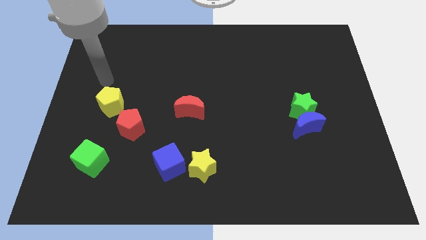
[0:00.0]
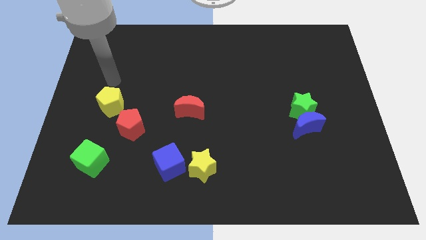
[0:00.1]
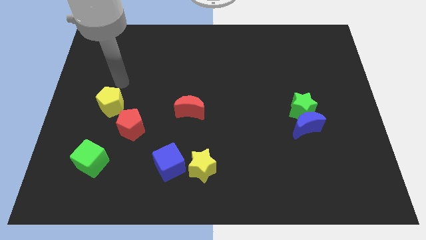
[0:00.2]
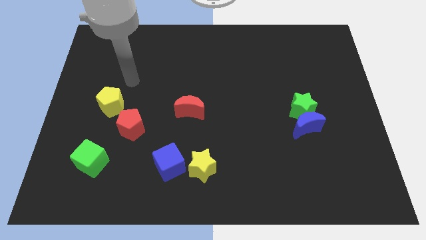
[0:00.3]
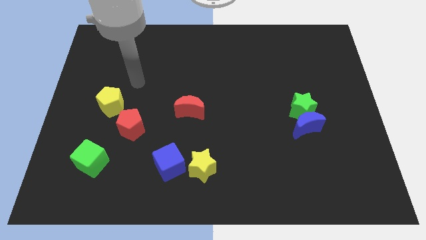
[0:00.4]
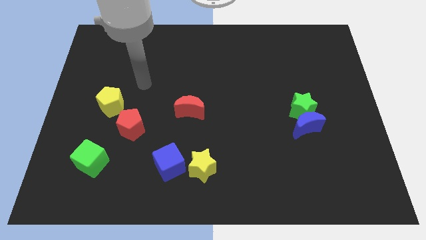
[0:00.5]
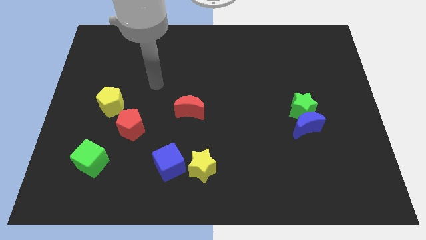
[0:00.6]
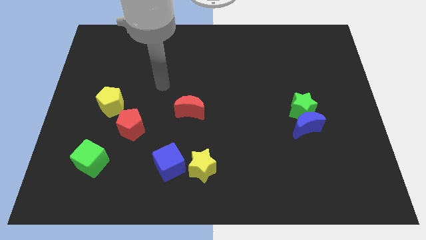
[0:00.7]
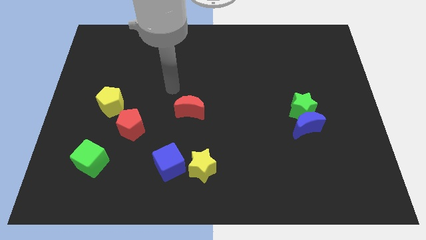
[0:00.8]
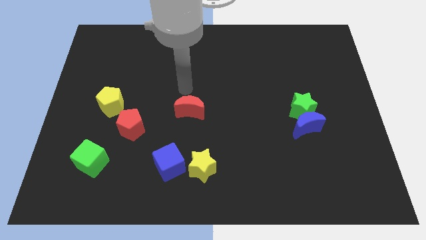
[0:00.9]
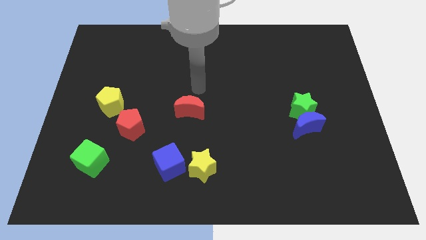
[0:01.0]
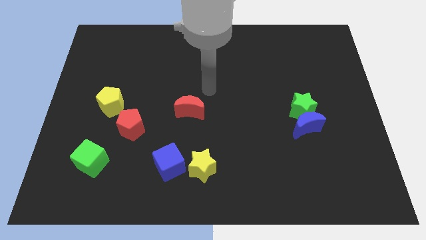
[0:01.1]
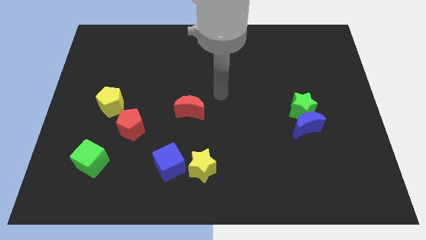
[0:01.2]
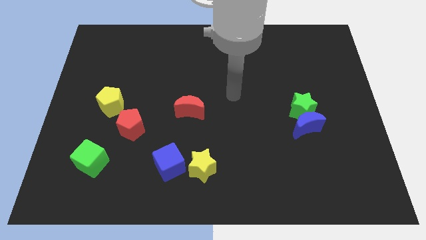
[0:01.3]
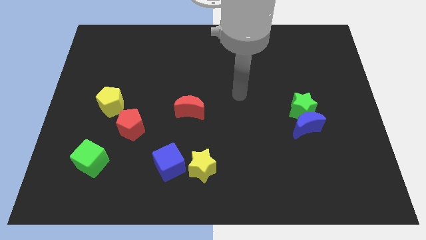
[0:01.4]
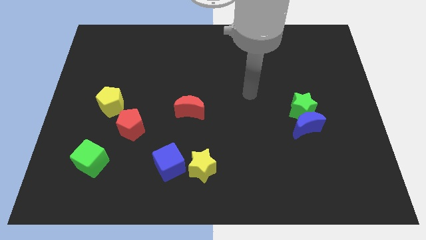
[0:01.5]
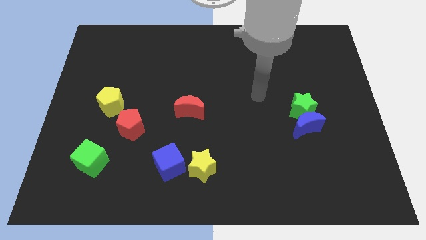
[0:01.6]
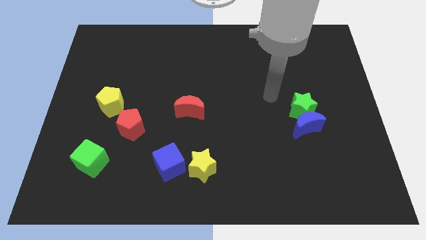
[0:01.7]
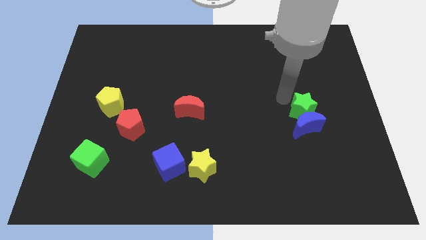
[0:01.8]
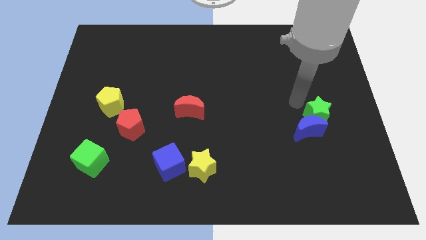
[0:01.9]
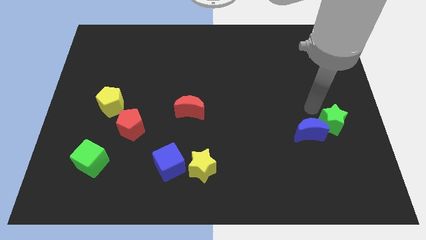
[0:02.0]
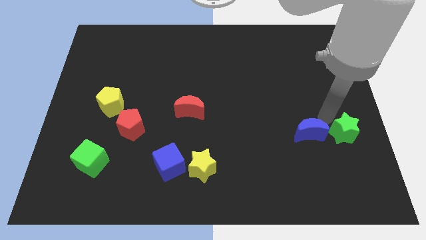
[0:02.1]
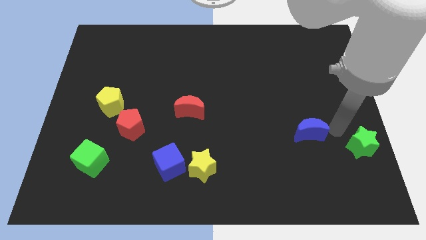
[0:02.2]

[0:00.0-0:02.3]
pull the blue moon apart from the green star

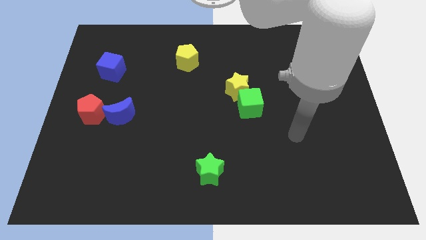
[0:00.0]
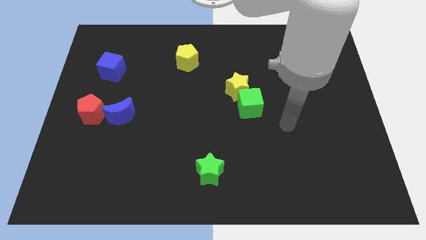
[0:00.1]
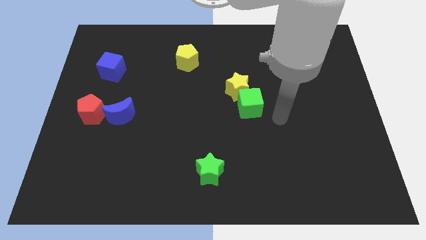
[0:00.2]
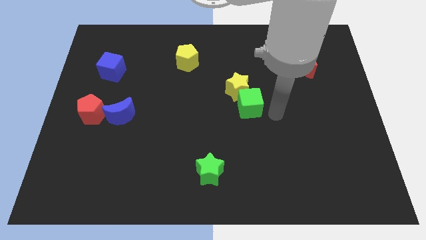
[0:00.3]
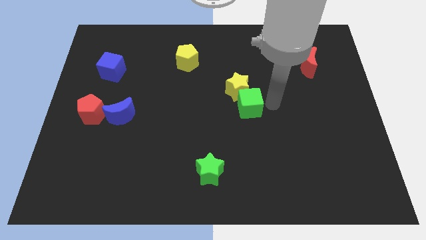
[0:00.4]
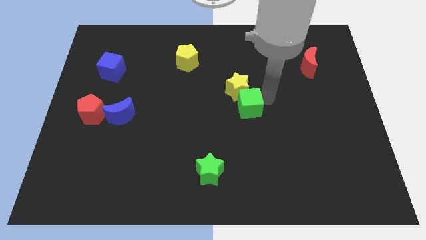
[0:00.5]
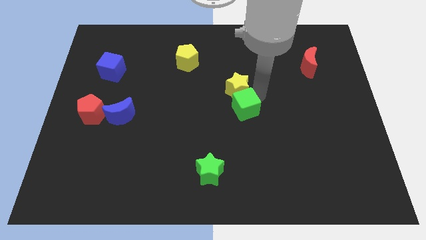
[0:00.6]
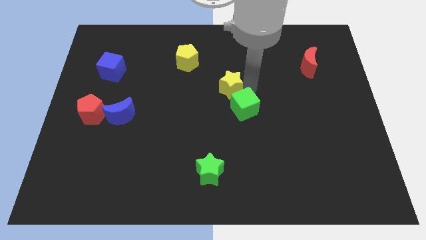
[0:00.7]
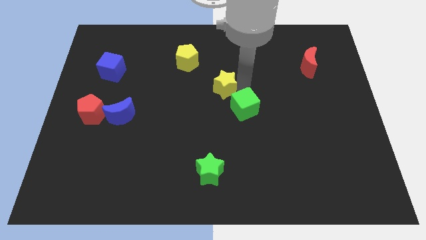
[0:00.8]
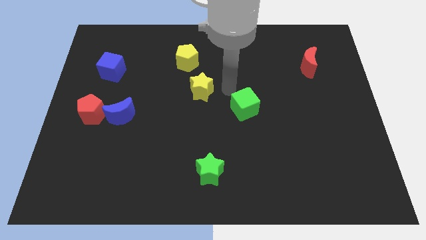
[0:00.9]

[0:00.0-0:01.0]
separate the green cube from the yellow star

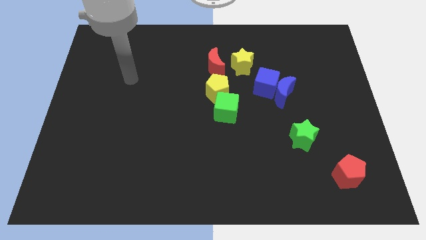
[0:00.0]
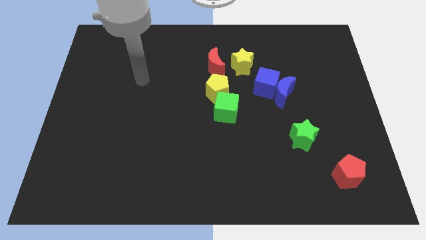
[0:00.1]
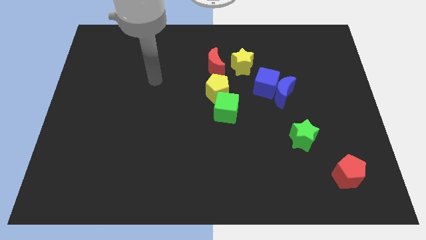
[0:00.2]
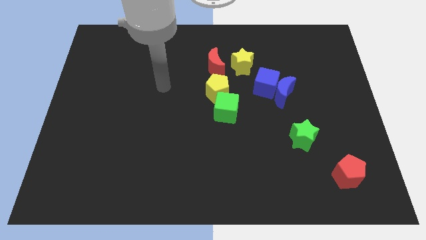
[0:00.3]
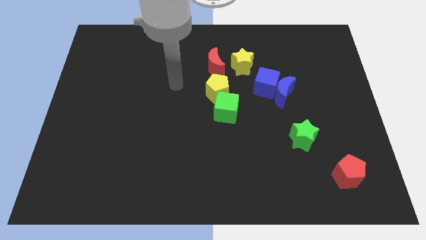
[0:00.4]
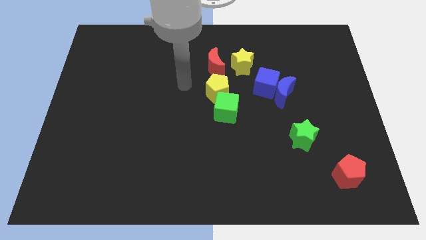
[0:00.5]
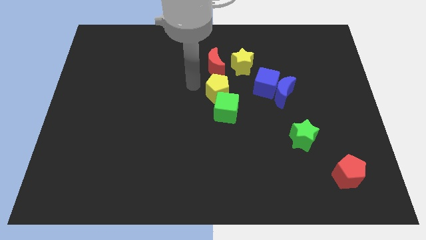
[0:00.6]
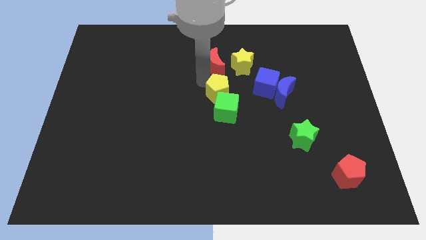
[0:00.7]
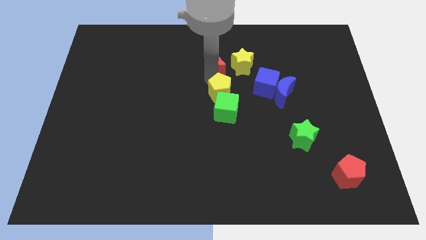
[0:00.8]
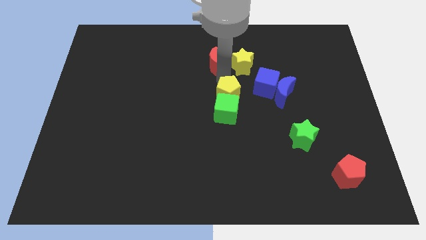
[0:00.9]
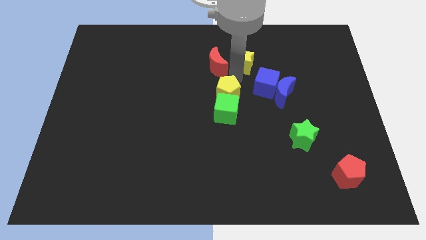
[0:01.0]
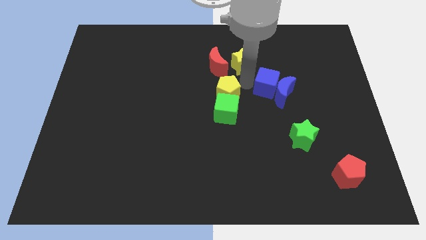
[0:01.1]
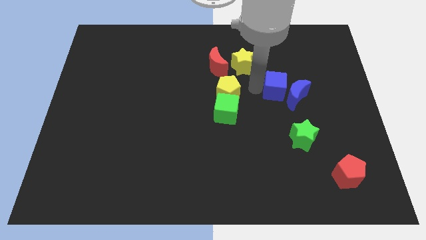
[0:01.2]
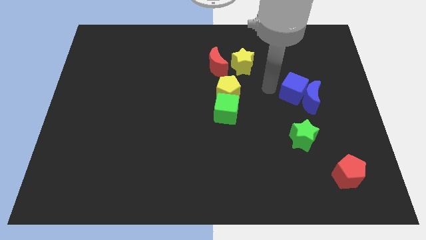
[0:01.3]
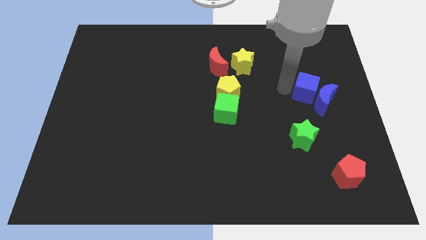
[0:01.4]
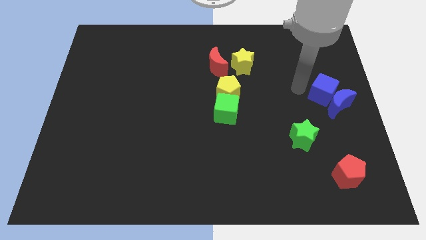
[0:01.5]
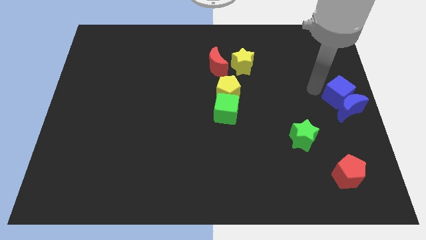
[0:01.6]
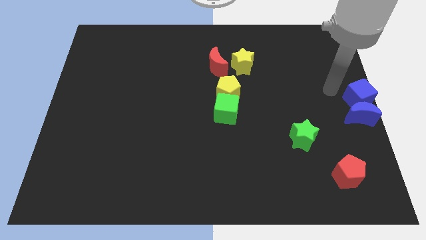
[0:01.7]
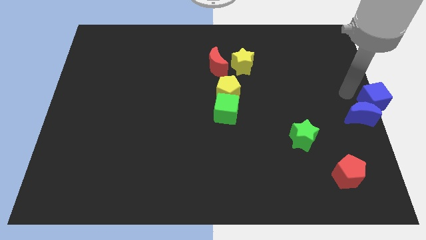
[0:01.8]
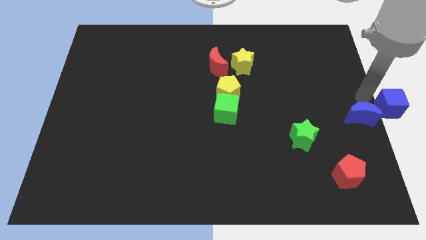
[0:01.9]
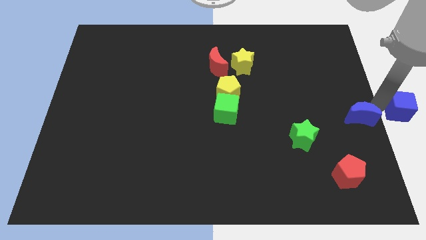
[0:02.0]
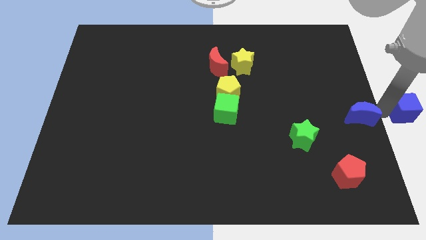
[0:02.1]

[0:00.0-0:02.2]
pull the blue moon apart from the blue cube

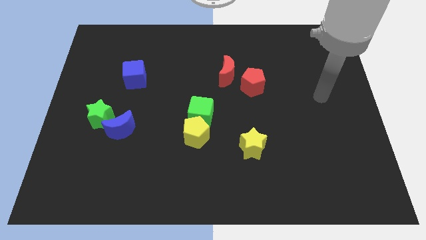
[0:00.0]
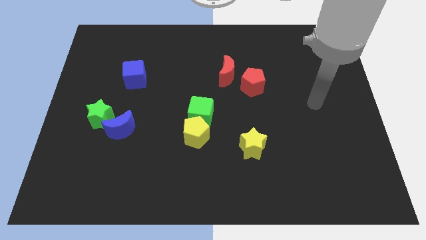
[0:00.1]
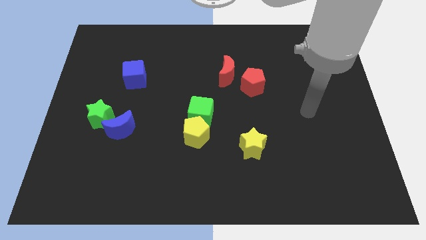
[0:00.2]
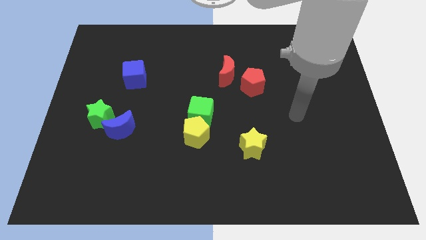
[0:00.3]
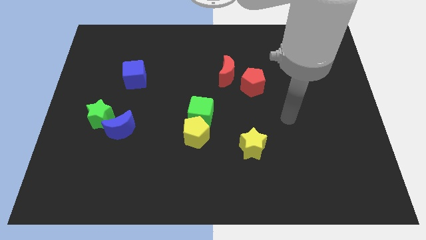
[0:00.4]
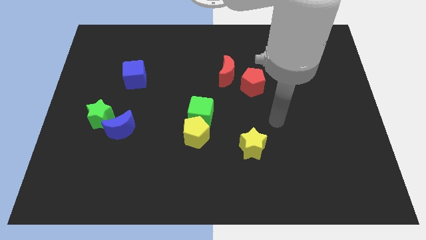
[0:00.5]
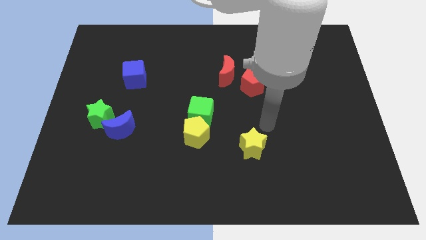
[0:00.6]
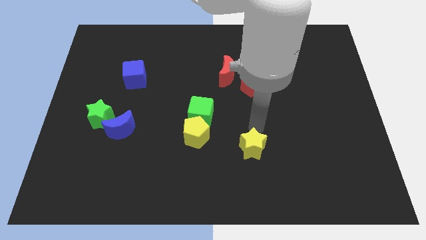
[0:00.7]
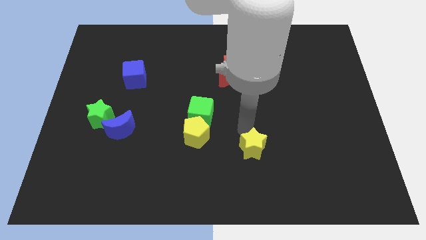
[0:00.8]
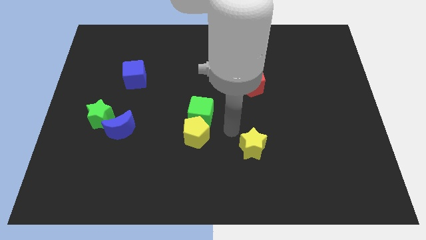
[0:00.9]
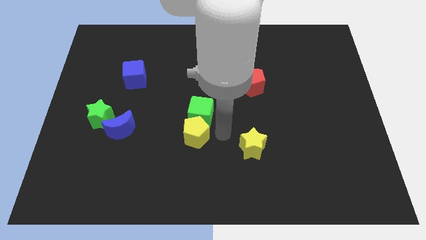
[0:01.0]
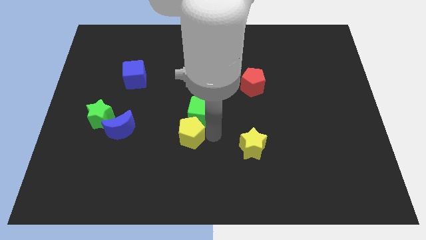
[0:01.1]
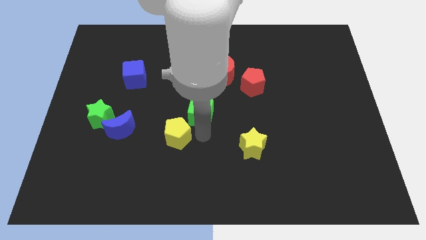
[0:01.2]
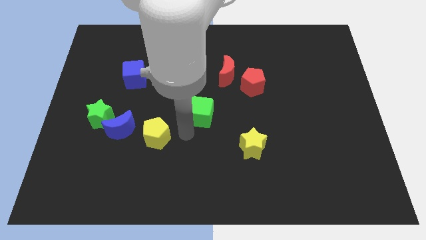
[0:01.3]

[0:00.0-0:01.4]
separate the green cube from the yellow pentagon

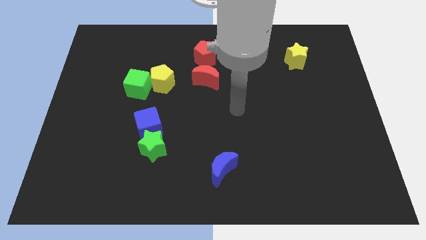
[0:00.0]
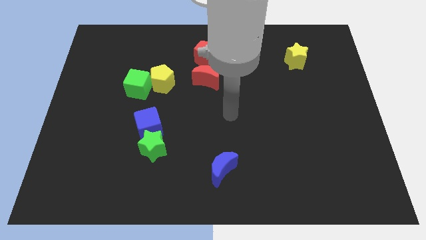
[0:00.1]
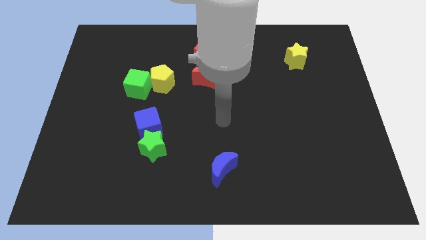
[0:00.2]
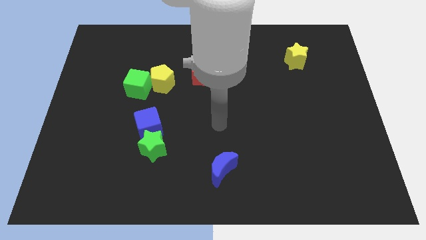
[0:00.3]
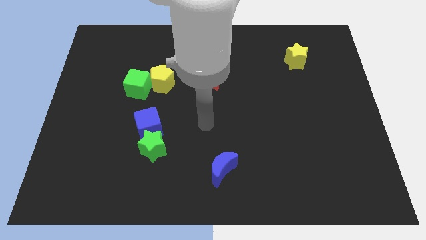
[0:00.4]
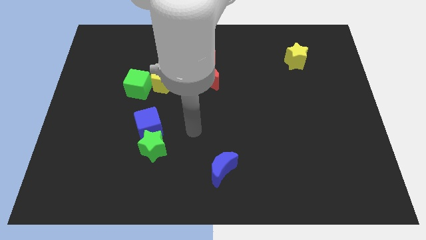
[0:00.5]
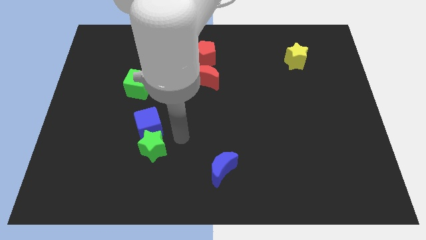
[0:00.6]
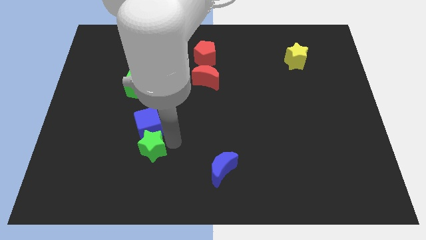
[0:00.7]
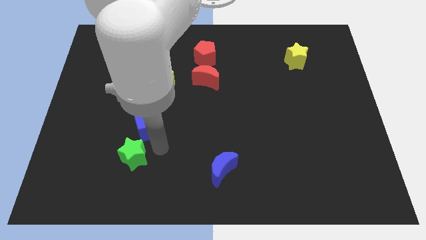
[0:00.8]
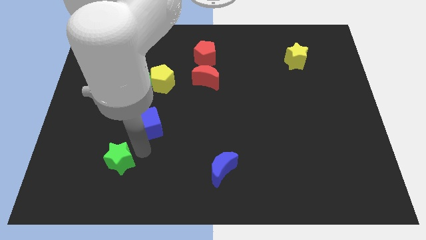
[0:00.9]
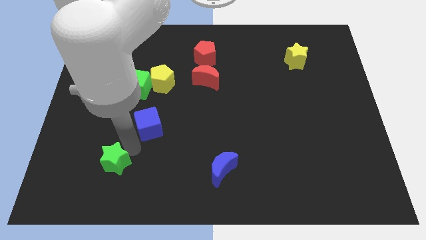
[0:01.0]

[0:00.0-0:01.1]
move the blue cube away from the green star

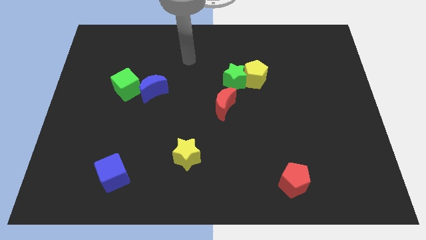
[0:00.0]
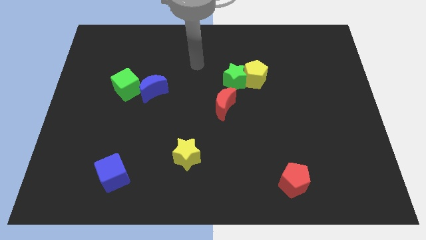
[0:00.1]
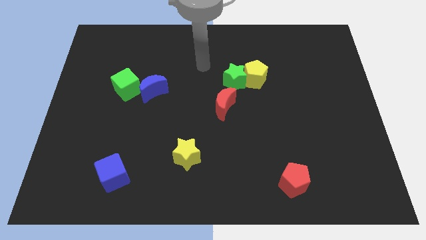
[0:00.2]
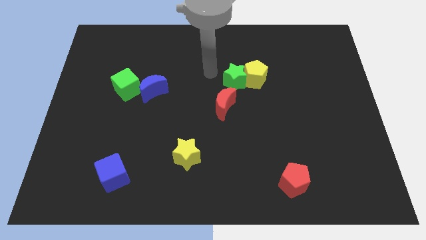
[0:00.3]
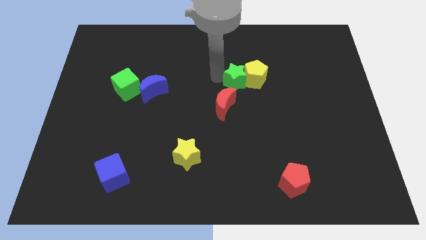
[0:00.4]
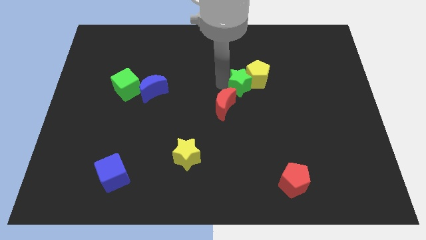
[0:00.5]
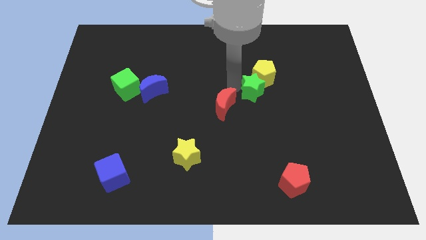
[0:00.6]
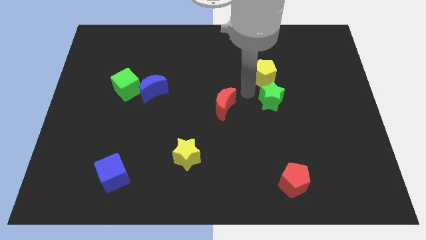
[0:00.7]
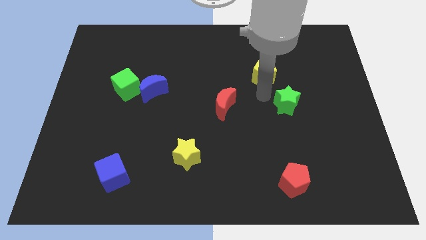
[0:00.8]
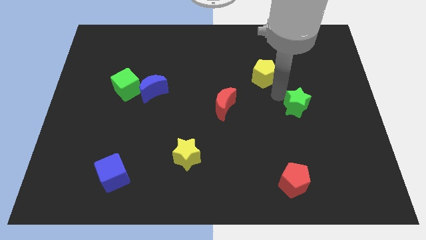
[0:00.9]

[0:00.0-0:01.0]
pull the yellow pentagon apart from the green star

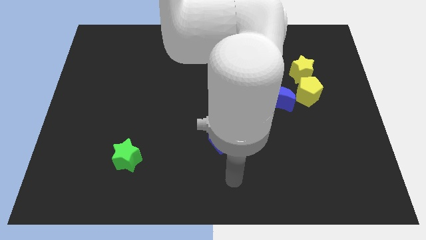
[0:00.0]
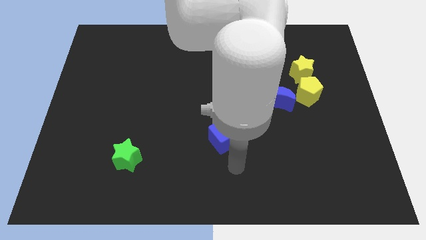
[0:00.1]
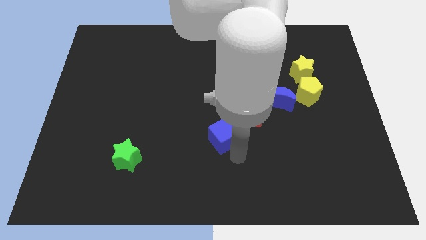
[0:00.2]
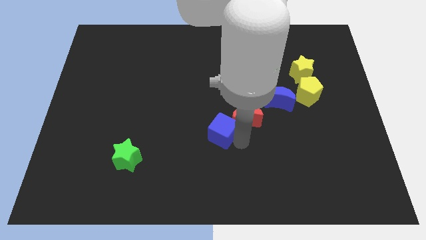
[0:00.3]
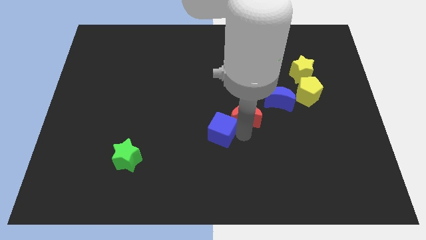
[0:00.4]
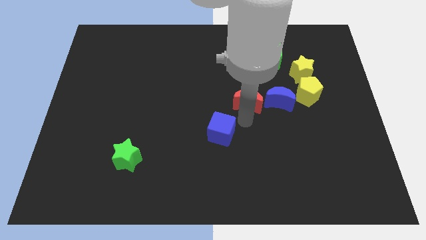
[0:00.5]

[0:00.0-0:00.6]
pull the blue cube apart from the red moon
